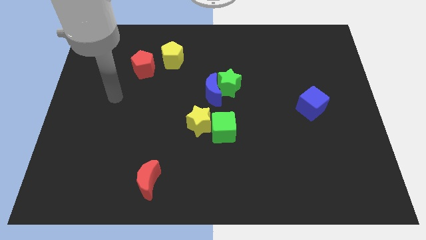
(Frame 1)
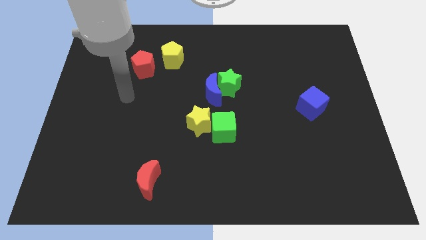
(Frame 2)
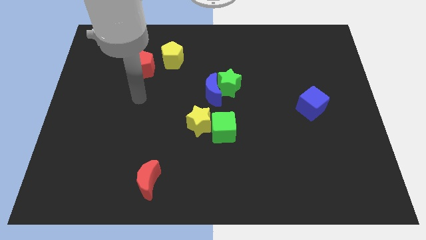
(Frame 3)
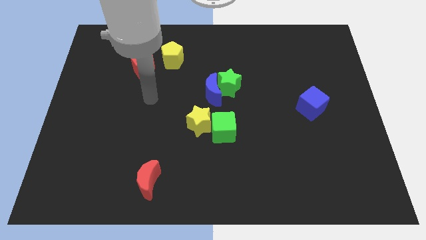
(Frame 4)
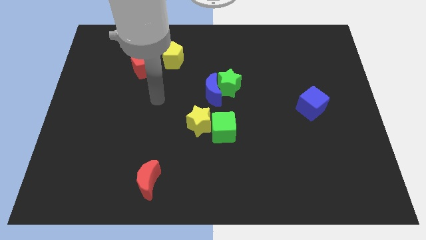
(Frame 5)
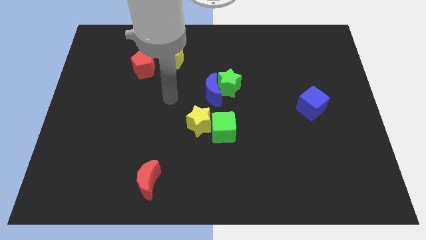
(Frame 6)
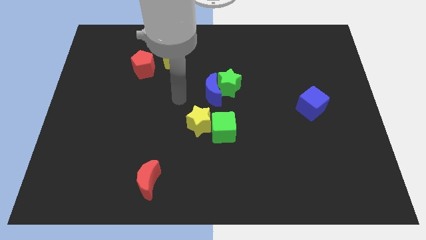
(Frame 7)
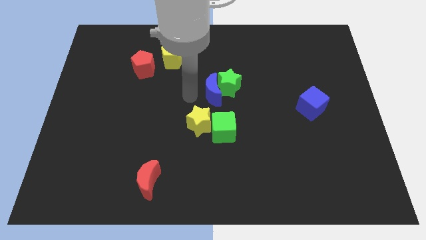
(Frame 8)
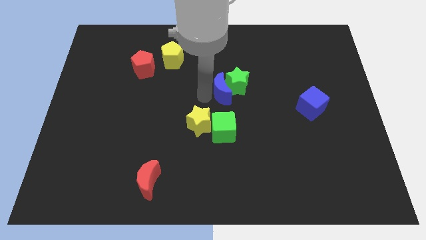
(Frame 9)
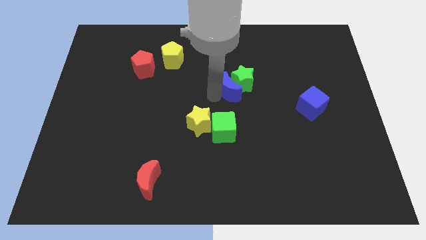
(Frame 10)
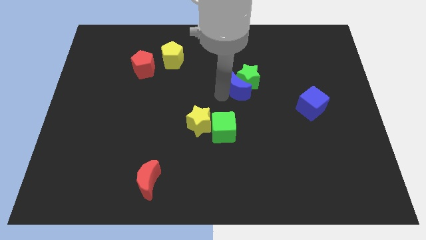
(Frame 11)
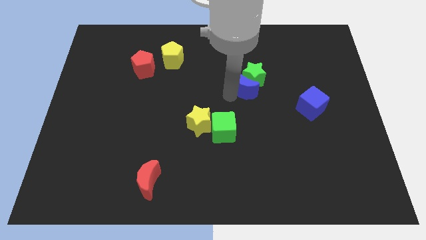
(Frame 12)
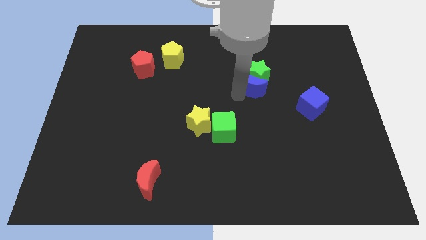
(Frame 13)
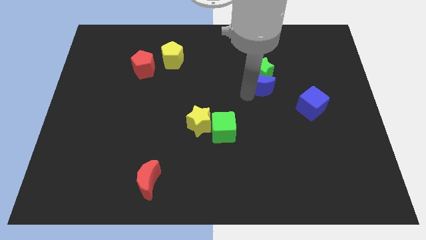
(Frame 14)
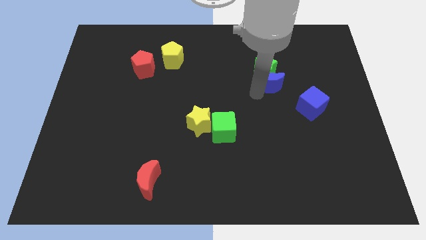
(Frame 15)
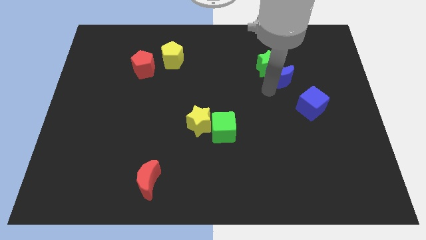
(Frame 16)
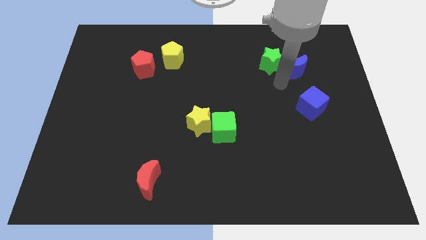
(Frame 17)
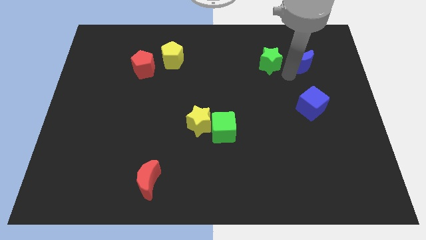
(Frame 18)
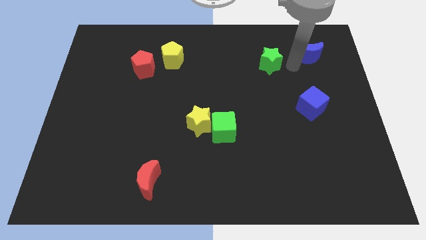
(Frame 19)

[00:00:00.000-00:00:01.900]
separate the green star from the blue moon

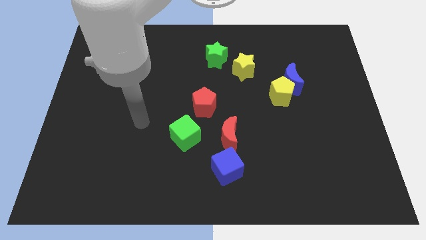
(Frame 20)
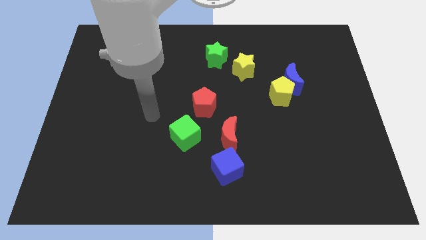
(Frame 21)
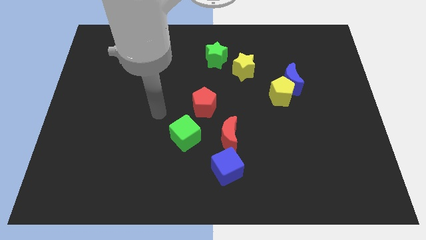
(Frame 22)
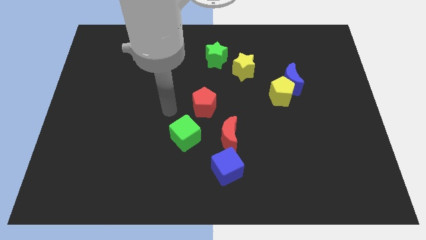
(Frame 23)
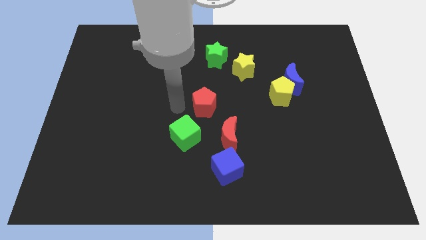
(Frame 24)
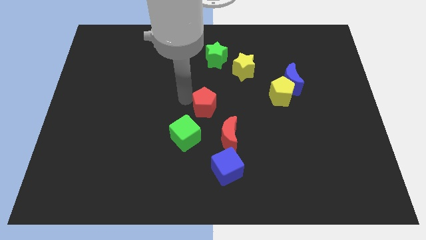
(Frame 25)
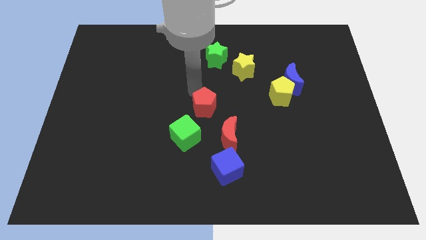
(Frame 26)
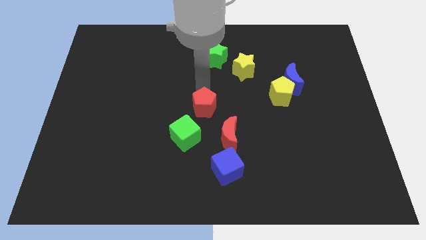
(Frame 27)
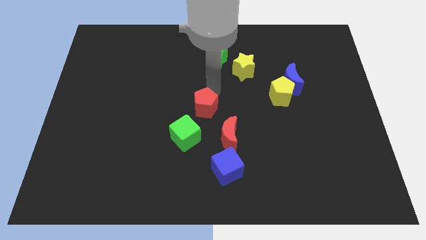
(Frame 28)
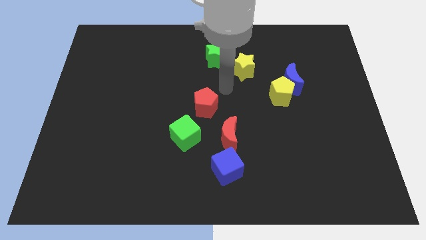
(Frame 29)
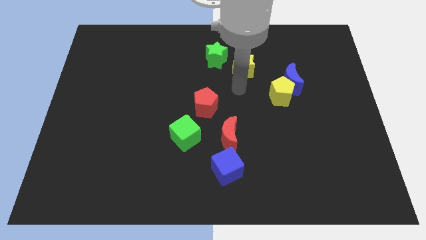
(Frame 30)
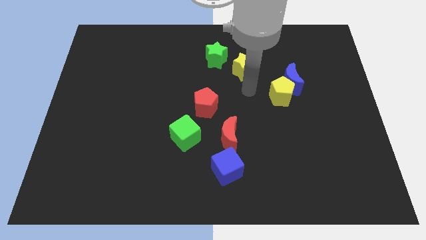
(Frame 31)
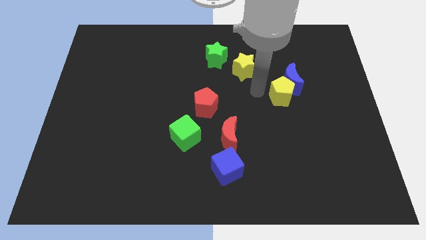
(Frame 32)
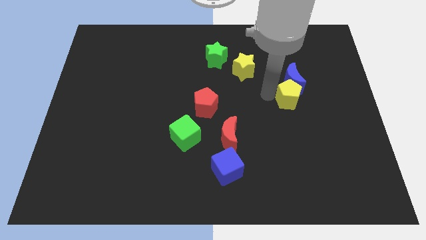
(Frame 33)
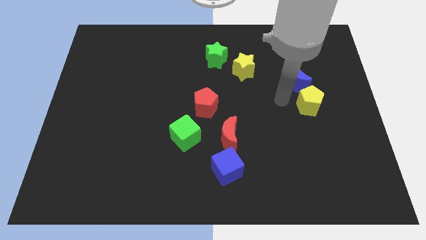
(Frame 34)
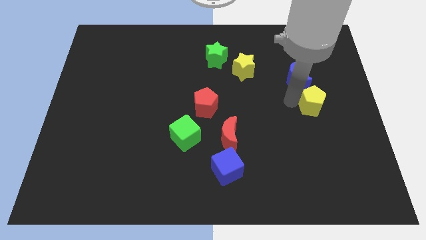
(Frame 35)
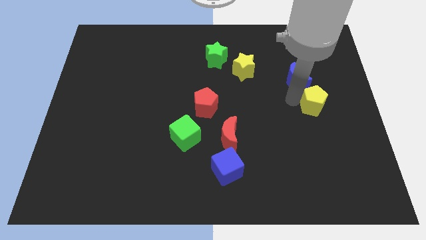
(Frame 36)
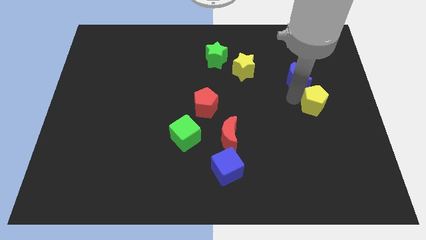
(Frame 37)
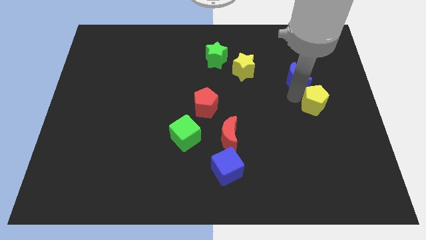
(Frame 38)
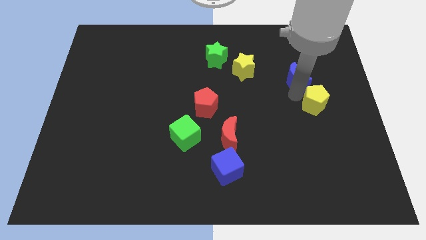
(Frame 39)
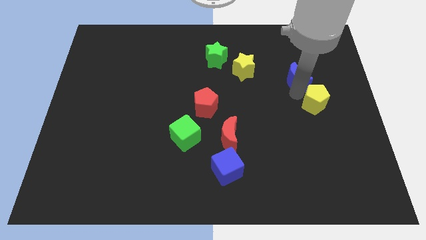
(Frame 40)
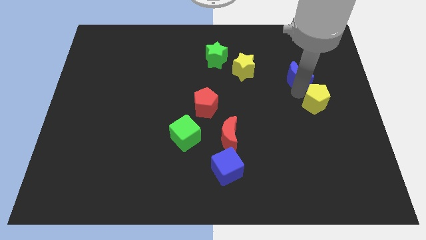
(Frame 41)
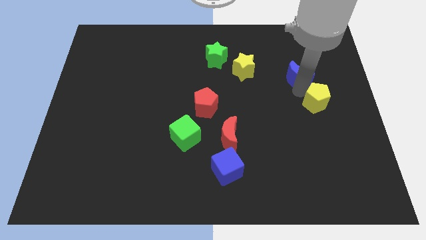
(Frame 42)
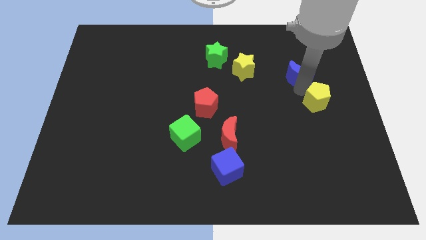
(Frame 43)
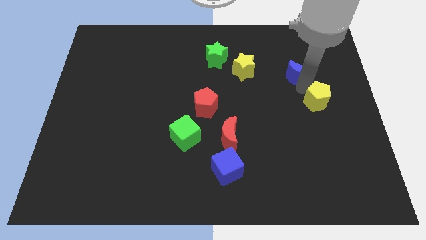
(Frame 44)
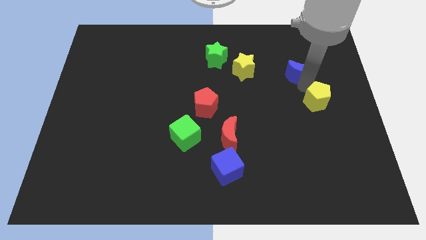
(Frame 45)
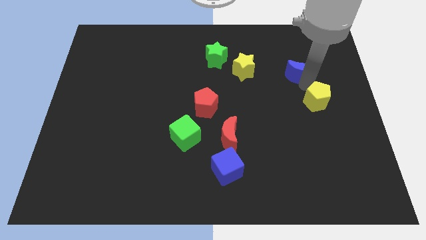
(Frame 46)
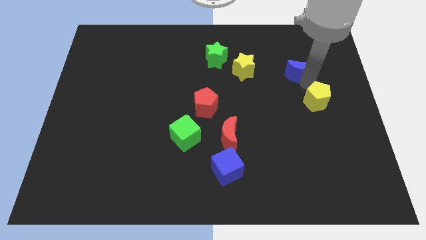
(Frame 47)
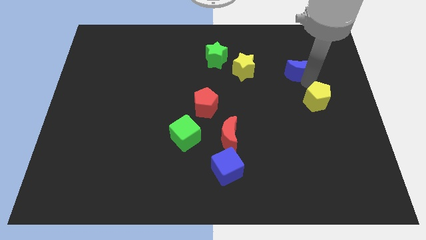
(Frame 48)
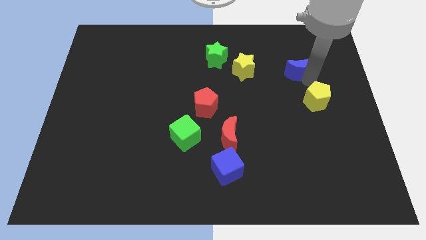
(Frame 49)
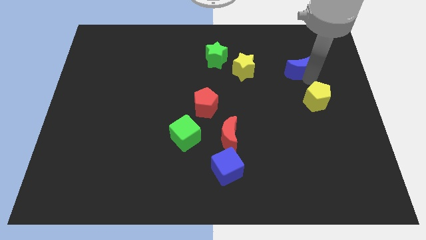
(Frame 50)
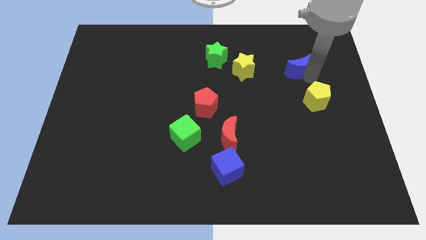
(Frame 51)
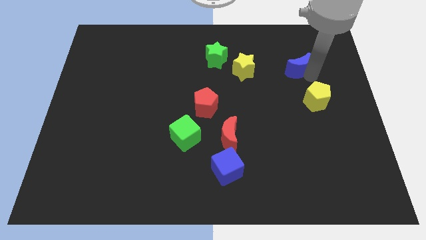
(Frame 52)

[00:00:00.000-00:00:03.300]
separate the blue moon from the yellow pentagon

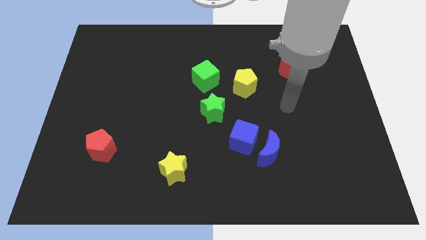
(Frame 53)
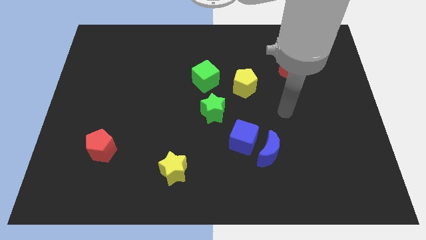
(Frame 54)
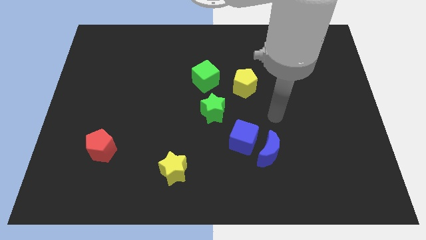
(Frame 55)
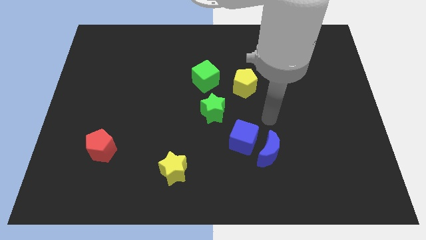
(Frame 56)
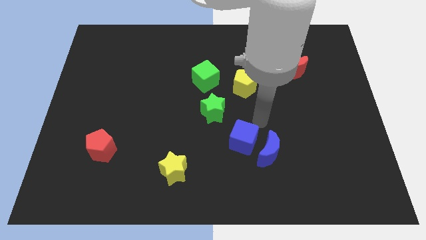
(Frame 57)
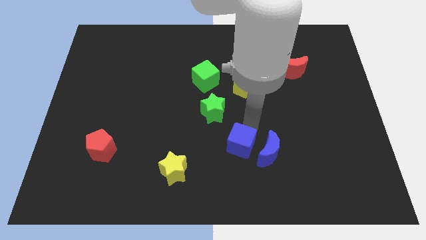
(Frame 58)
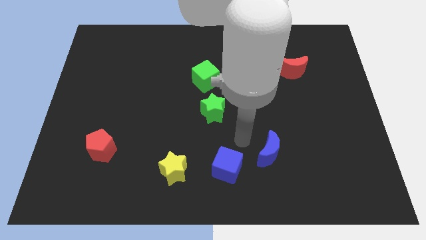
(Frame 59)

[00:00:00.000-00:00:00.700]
separate the blue moon from the blue cube

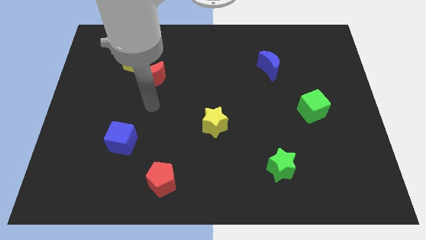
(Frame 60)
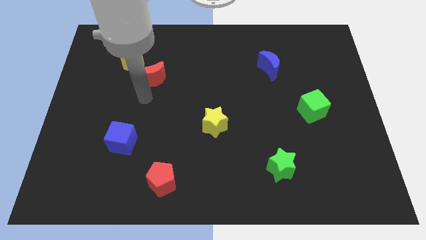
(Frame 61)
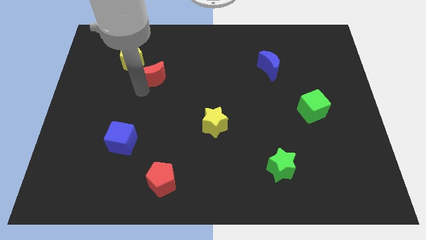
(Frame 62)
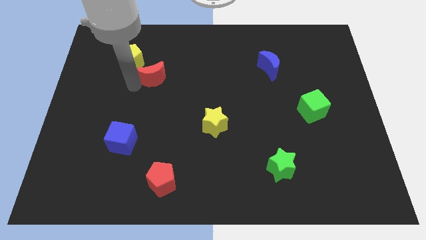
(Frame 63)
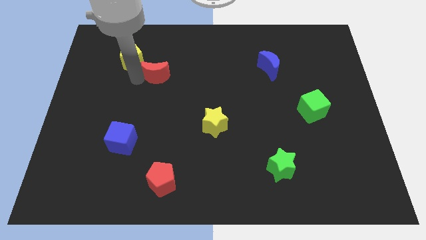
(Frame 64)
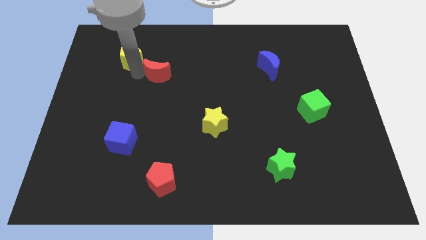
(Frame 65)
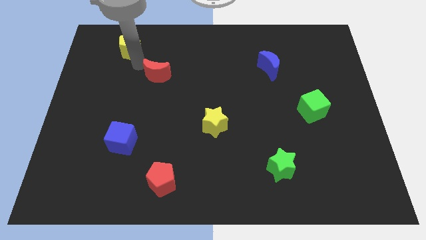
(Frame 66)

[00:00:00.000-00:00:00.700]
separate the red moon from the yellow pentagon

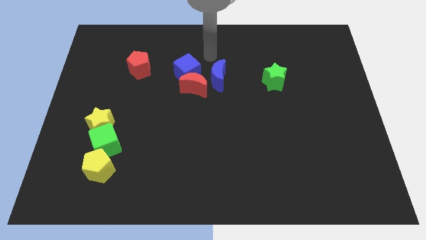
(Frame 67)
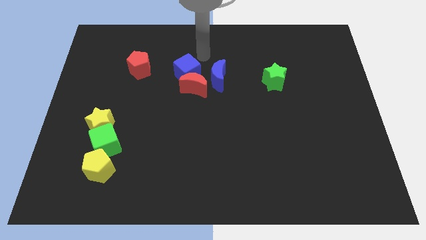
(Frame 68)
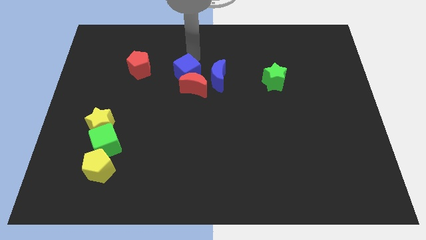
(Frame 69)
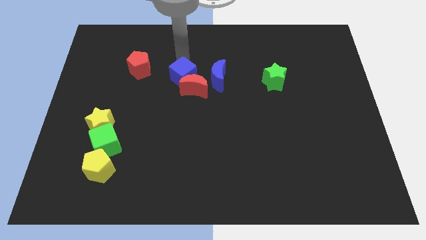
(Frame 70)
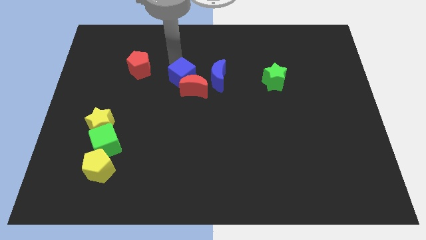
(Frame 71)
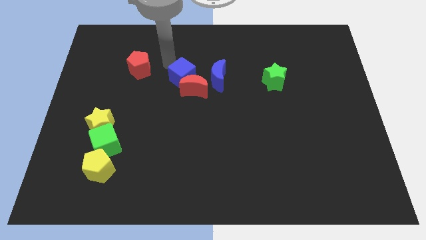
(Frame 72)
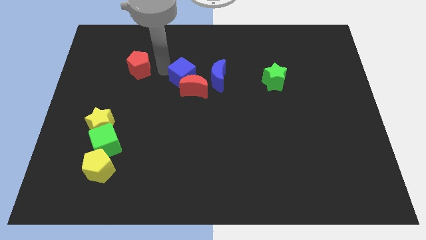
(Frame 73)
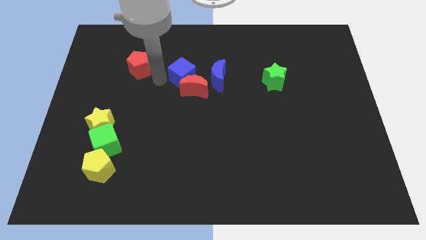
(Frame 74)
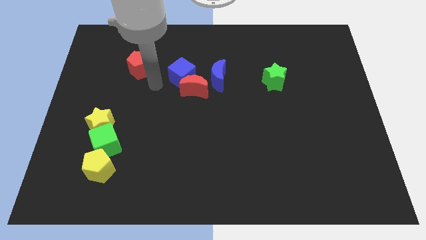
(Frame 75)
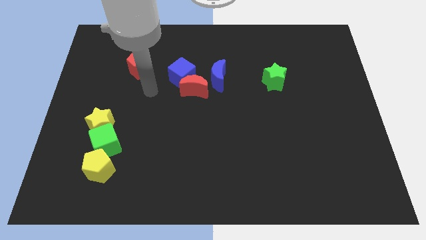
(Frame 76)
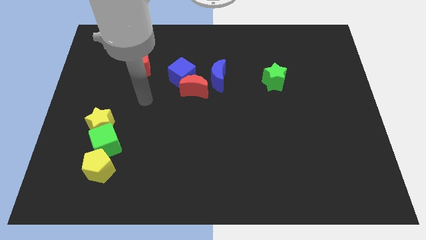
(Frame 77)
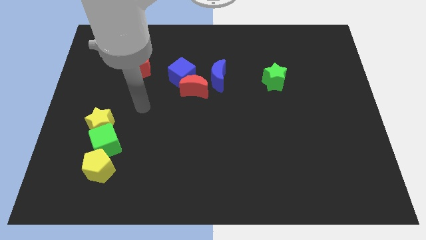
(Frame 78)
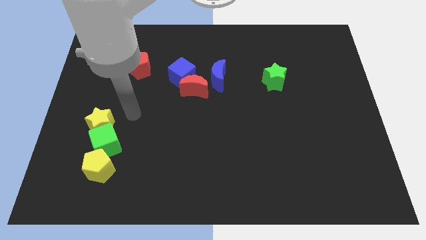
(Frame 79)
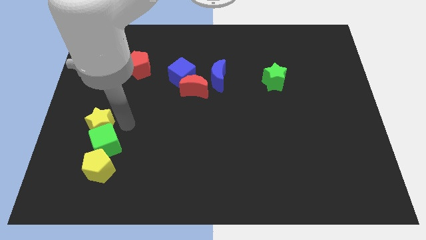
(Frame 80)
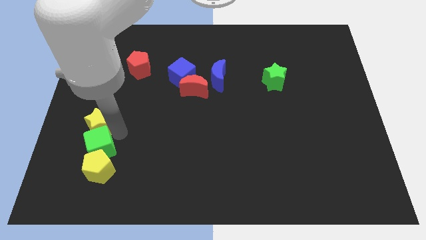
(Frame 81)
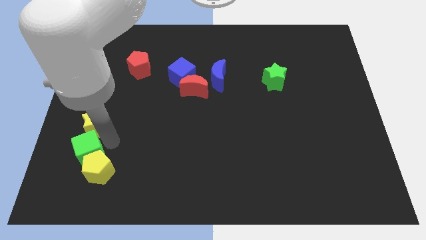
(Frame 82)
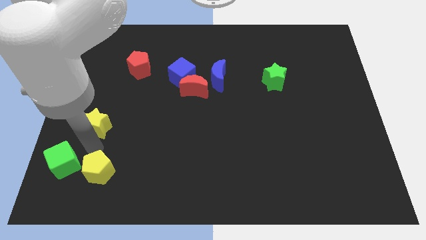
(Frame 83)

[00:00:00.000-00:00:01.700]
pull the yellow star apart from the green cube

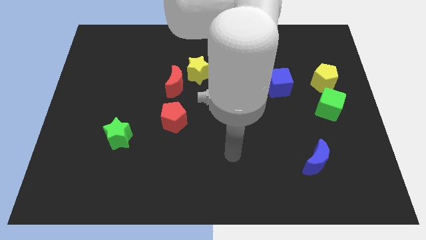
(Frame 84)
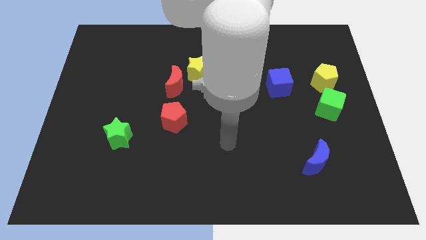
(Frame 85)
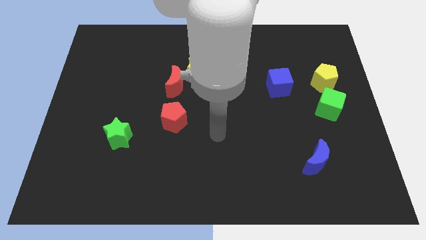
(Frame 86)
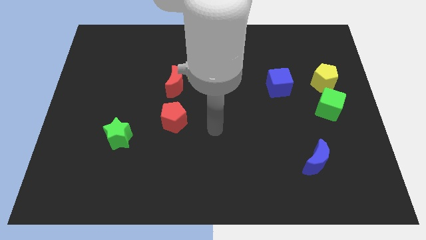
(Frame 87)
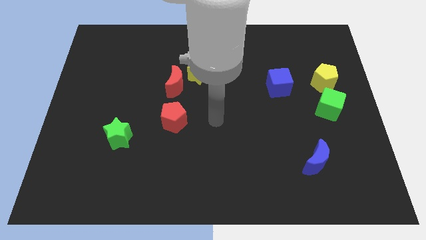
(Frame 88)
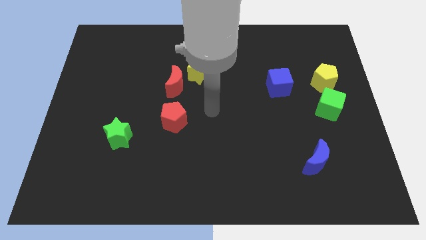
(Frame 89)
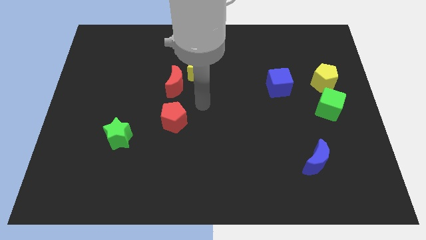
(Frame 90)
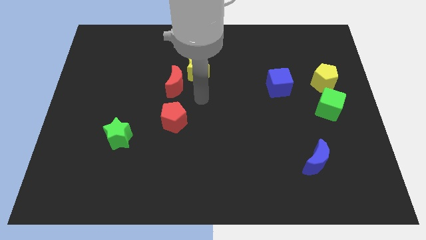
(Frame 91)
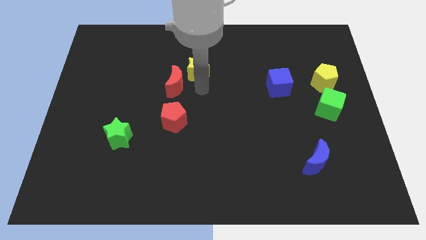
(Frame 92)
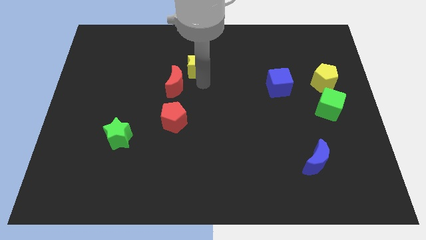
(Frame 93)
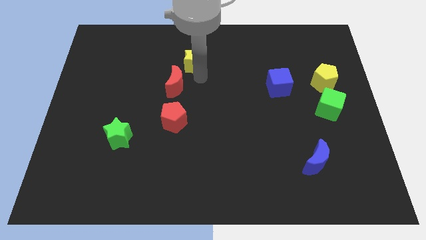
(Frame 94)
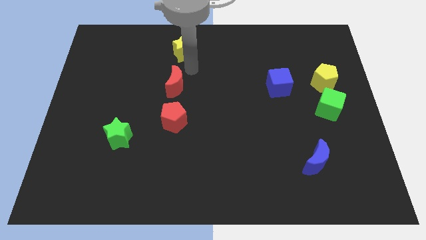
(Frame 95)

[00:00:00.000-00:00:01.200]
pull the red moon apart from the yellow star
